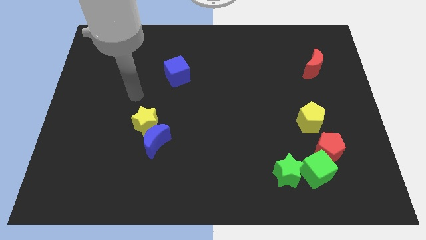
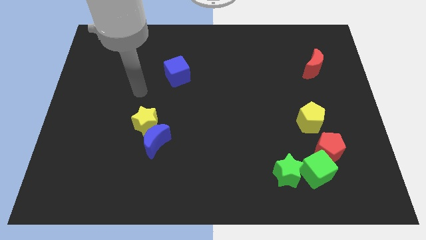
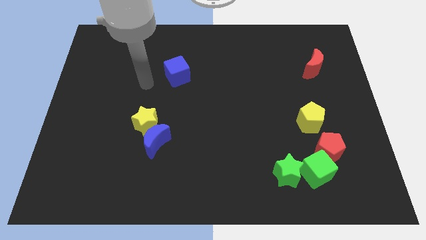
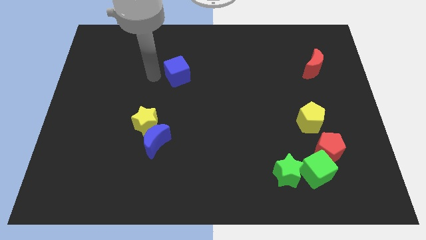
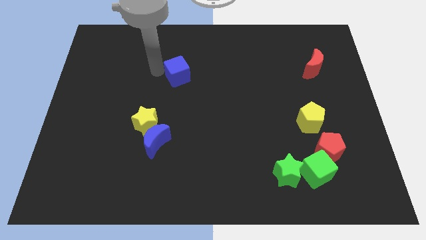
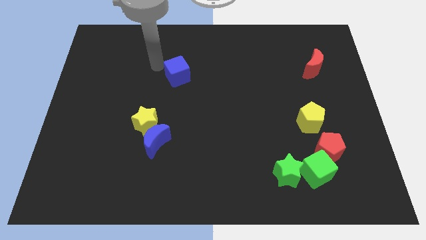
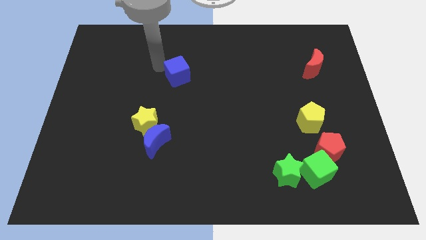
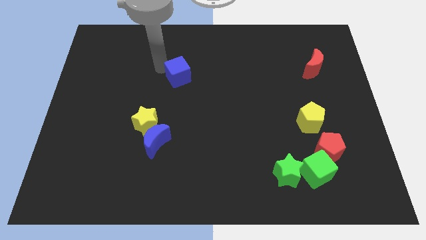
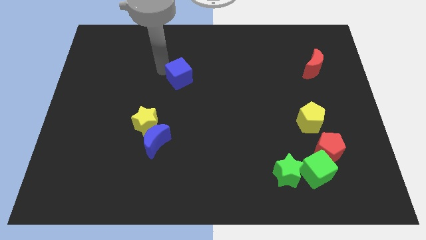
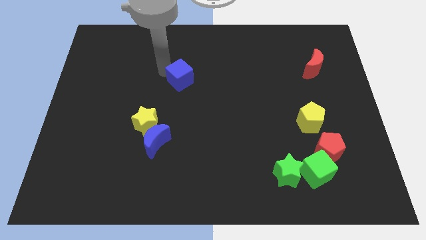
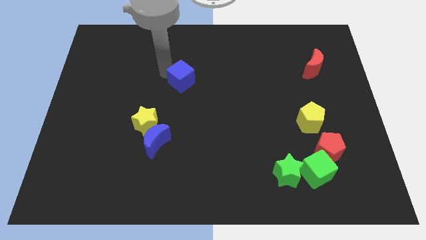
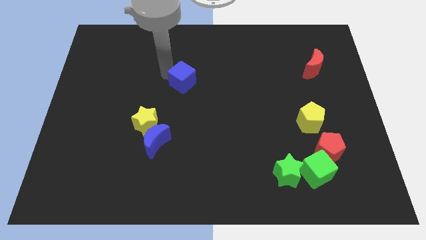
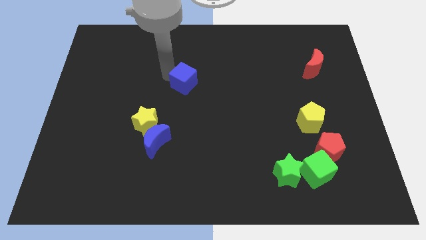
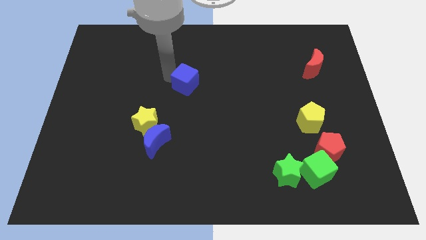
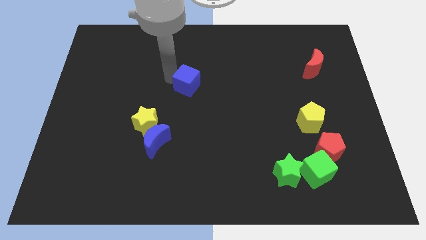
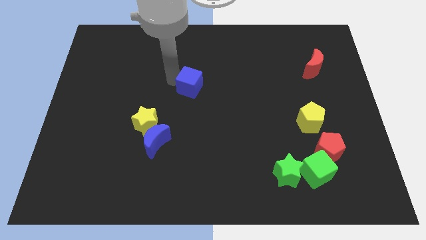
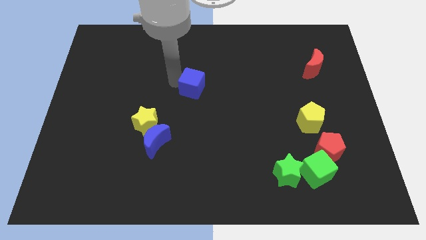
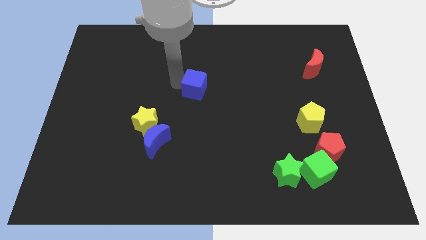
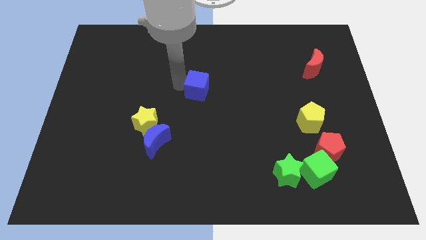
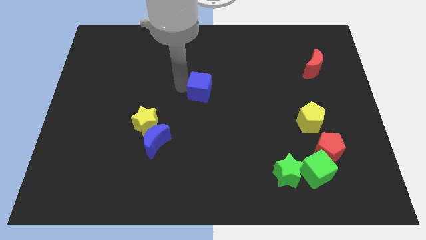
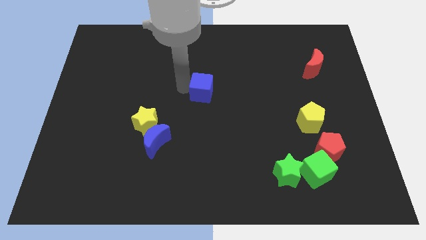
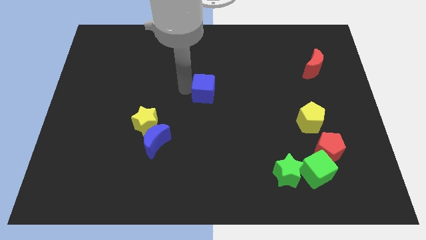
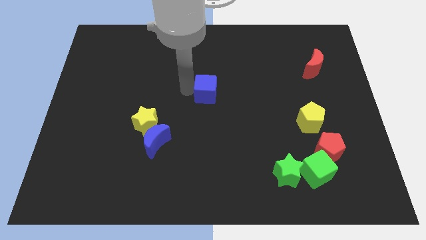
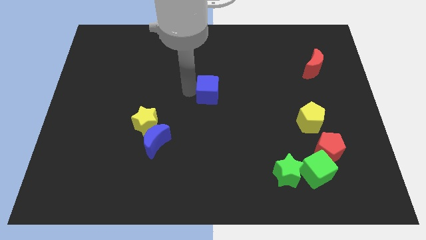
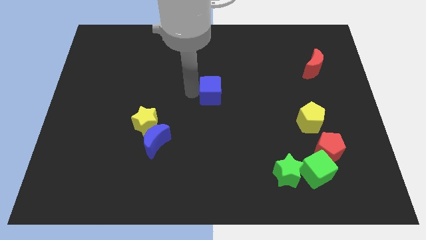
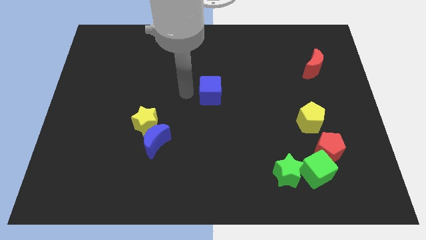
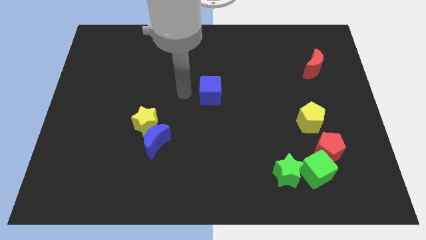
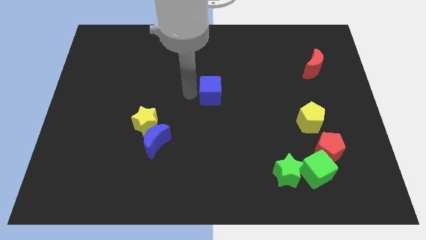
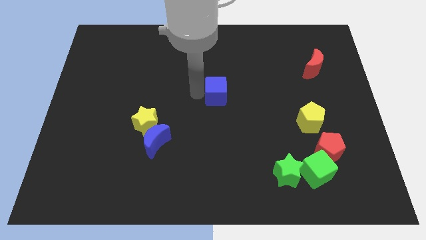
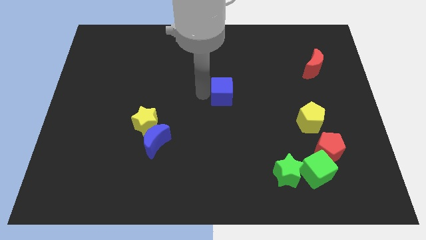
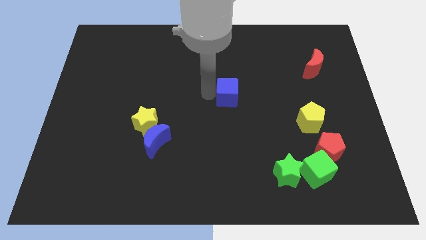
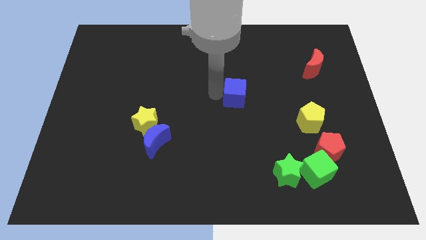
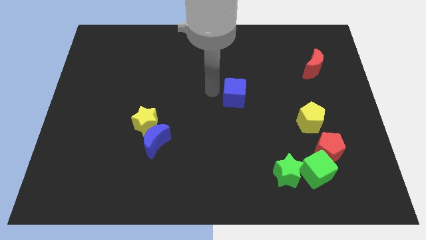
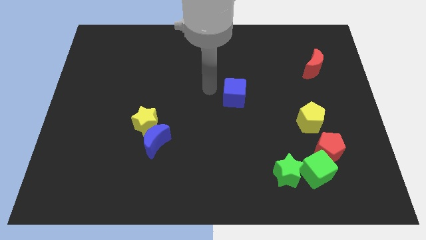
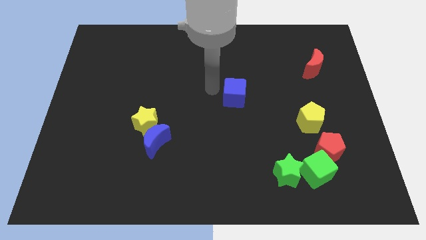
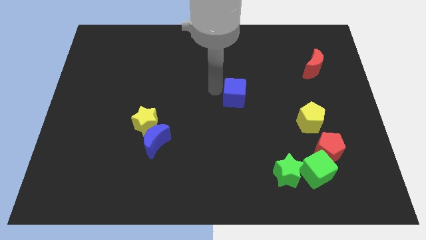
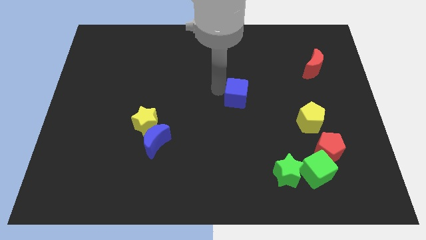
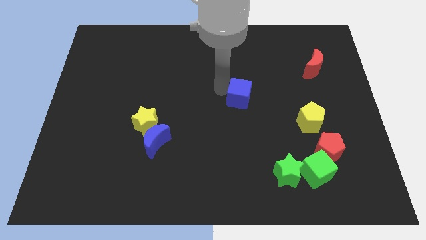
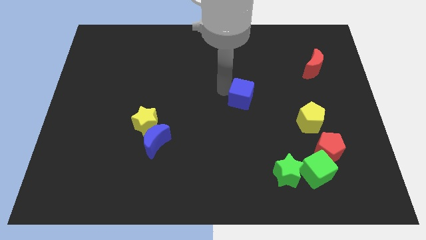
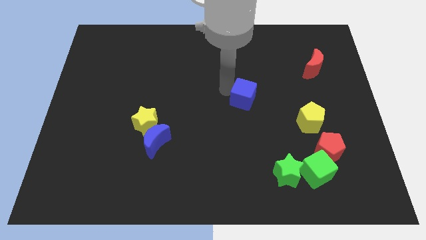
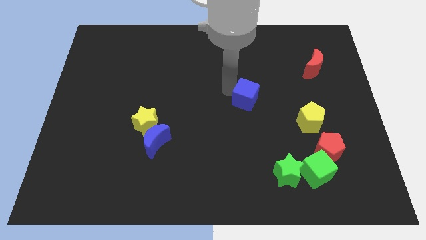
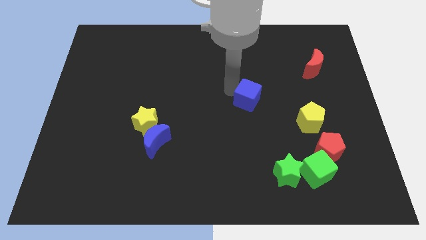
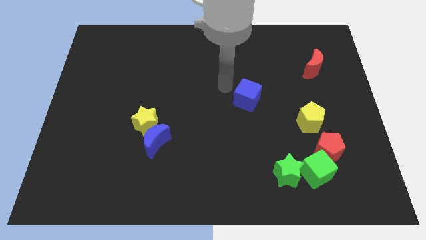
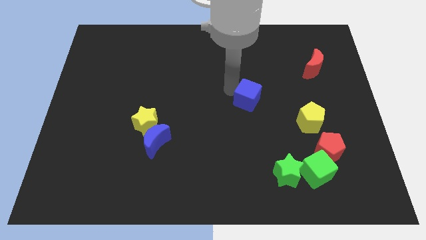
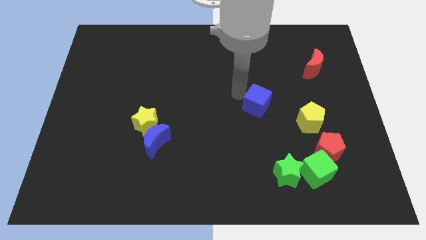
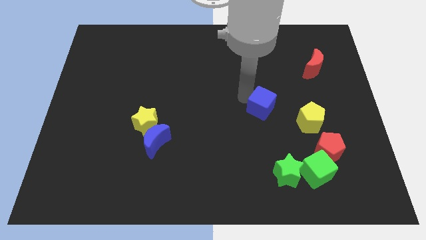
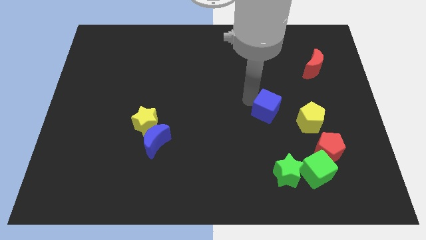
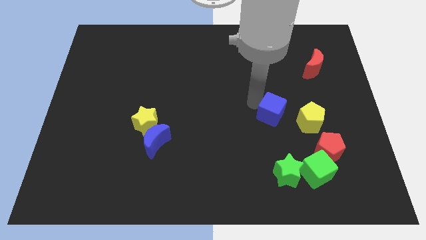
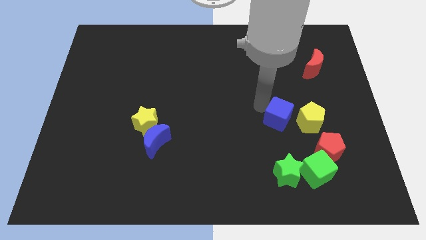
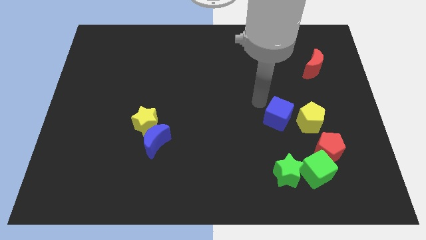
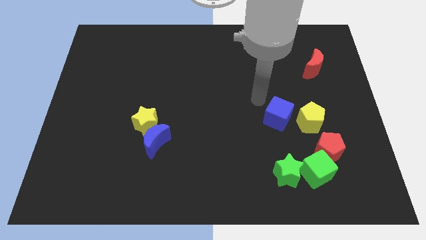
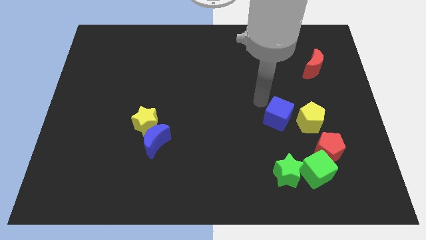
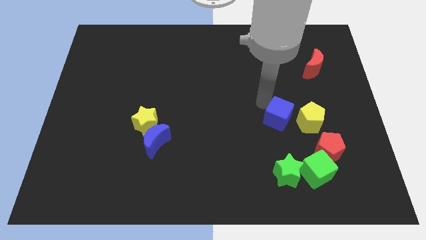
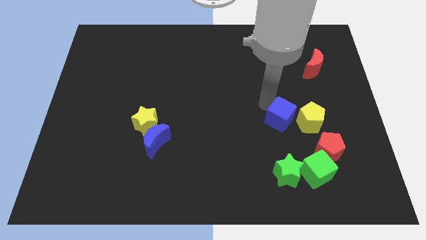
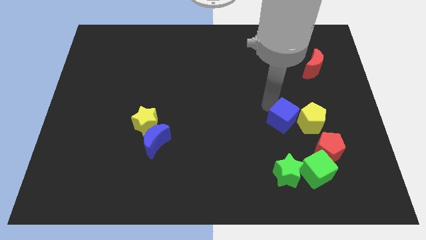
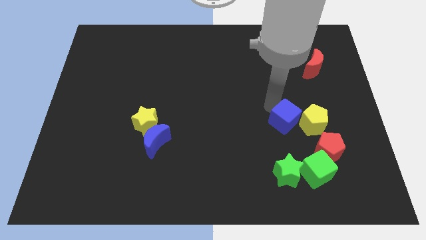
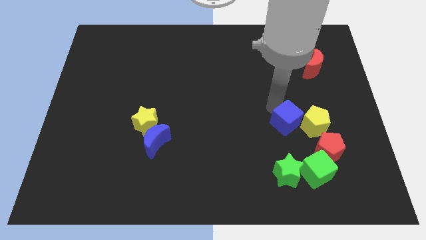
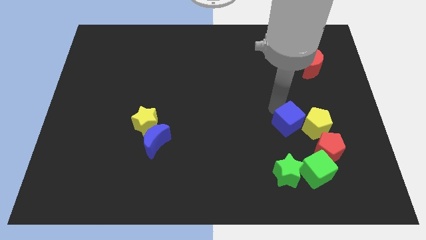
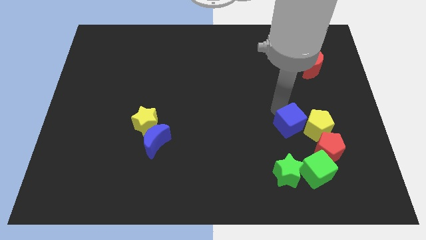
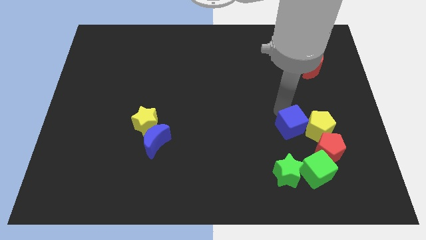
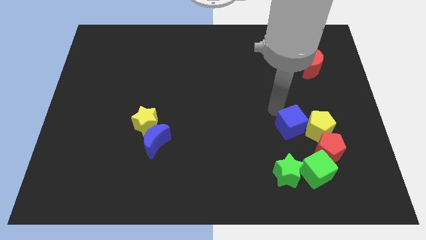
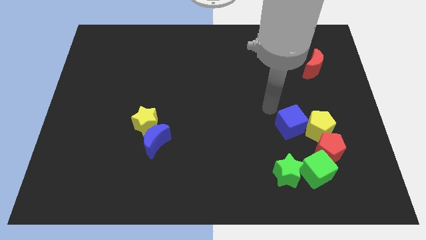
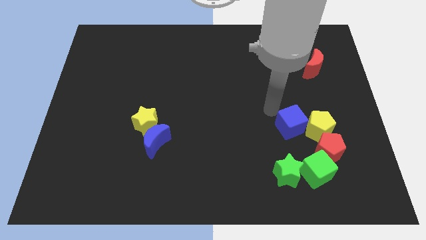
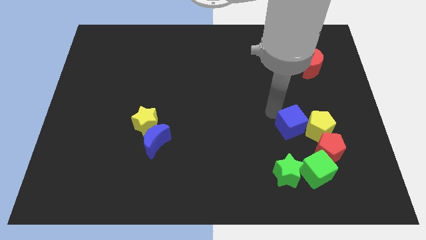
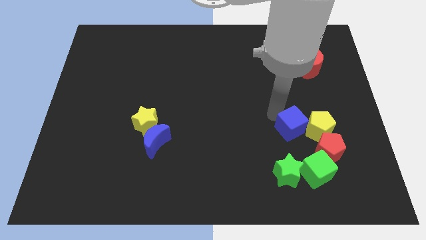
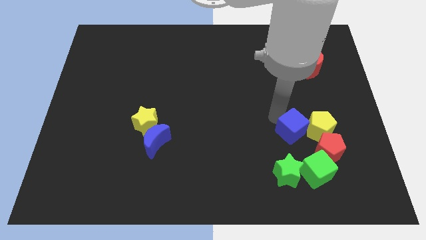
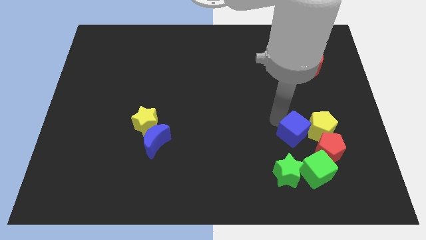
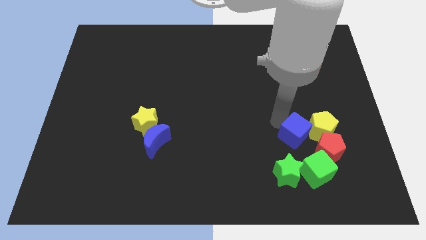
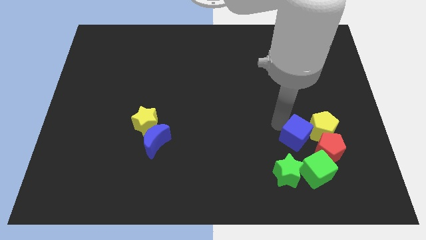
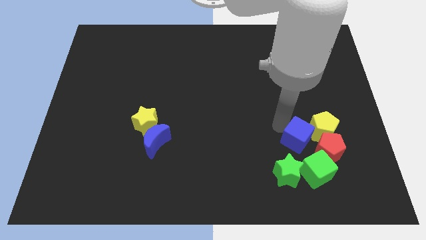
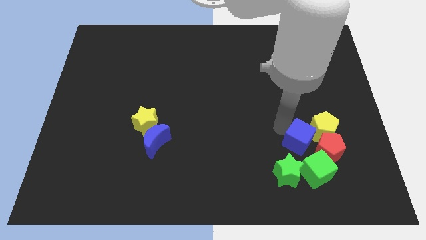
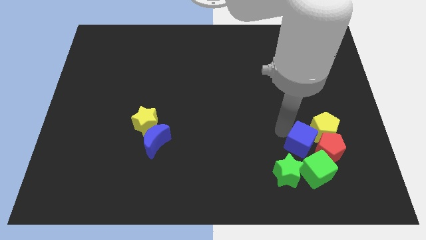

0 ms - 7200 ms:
push the blue cube towards the red pentagon

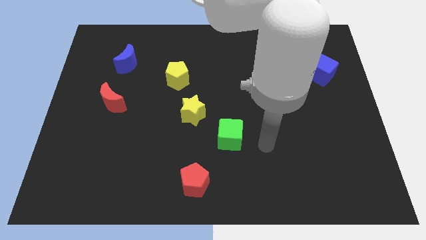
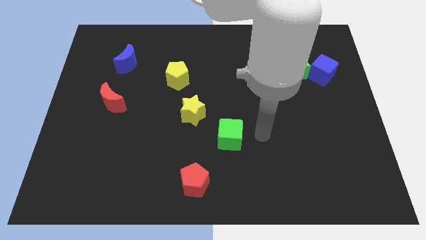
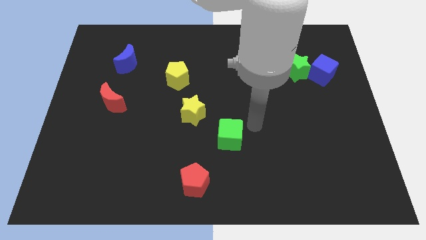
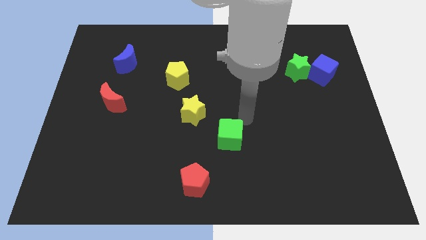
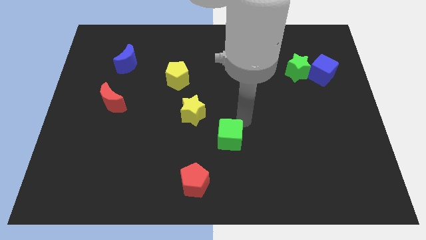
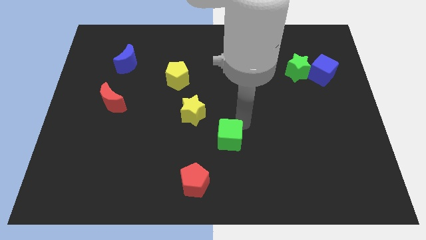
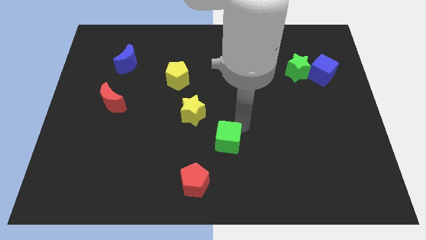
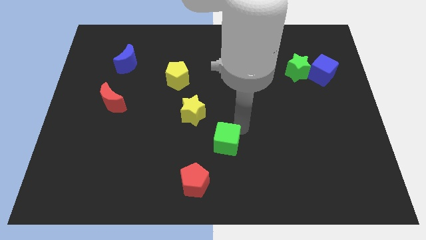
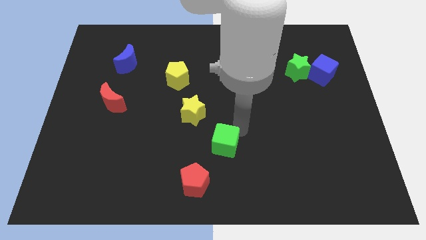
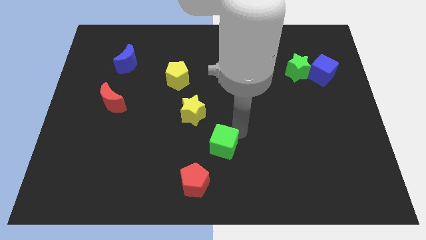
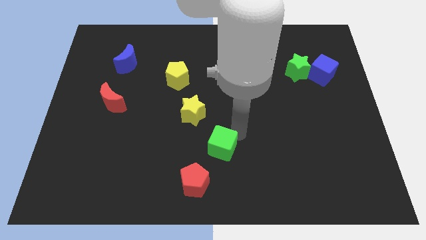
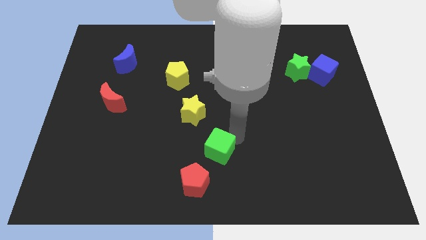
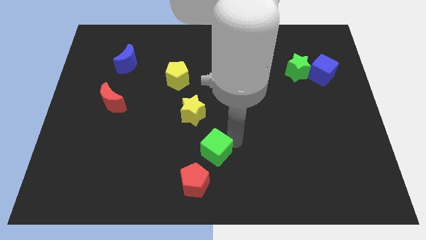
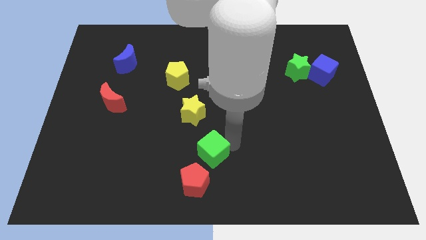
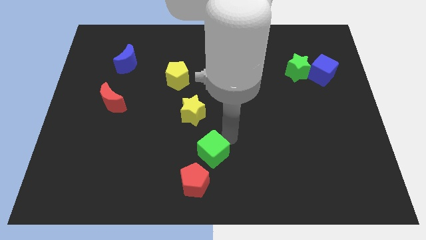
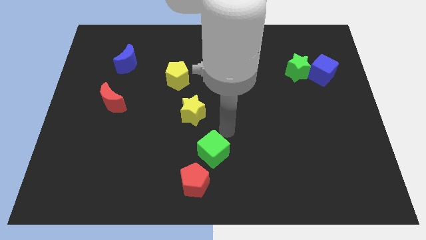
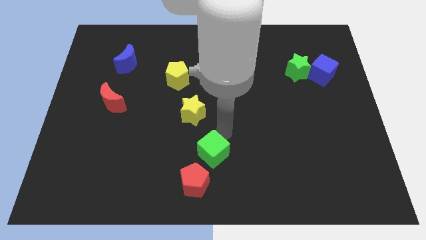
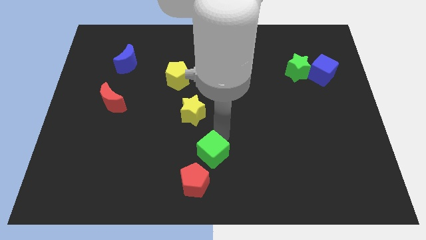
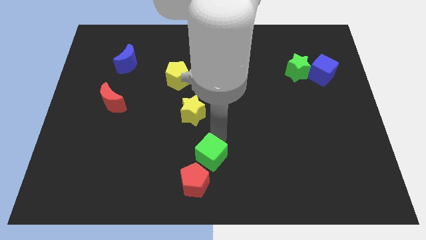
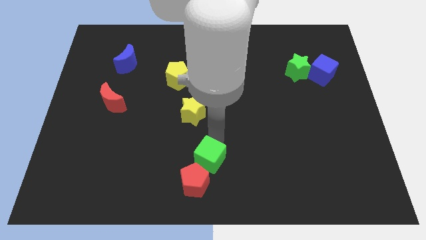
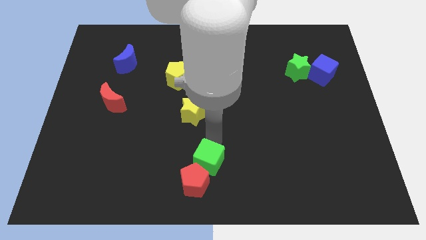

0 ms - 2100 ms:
put the green cube next to the red pentagon
